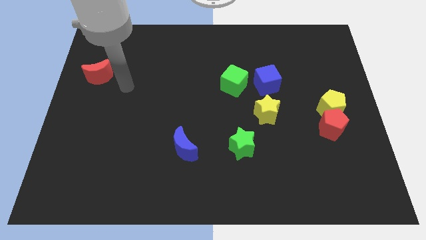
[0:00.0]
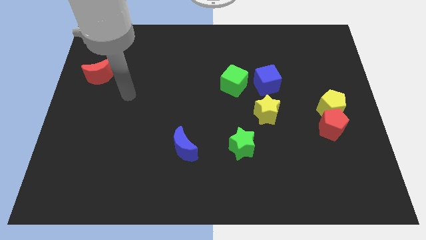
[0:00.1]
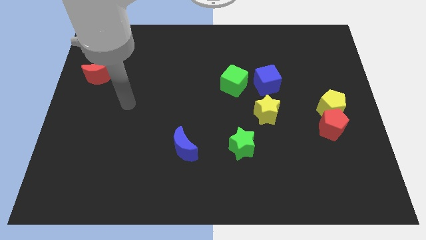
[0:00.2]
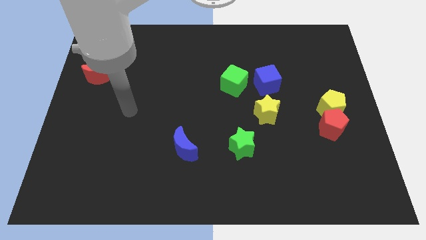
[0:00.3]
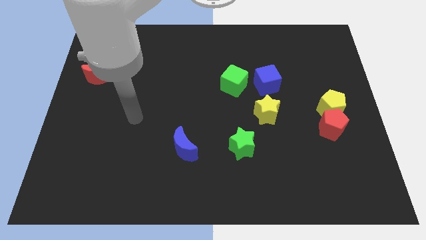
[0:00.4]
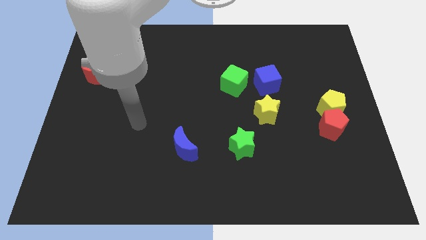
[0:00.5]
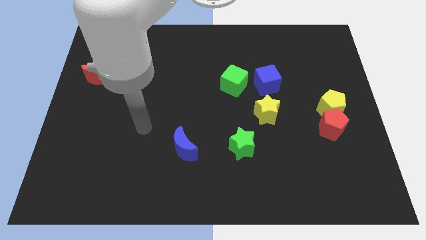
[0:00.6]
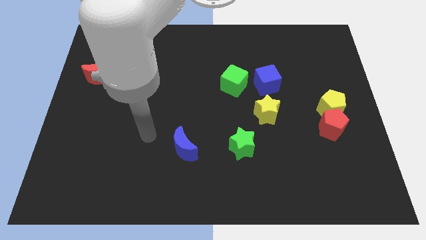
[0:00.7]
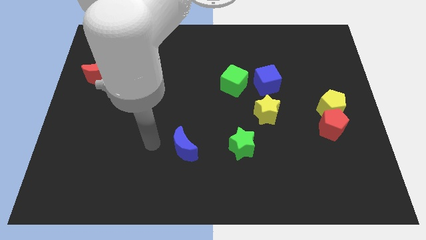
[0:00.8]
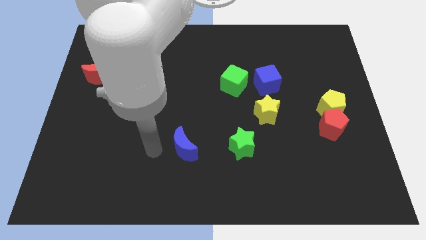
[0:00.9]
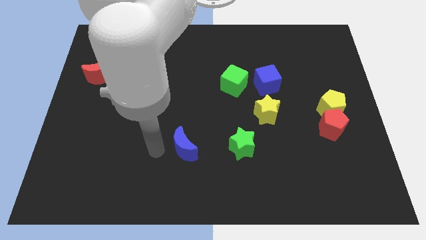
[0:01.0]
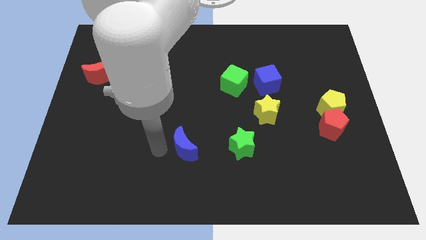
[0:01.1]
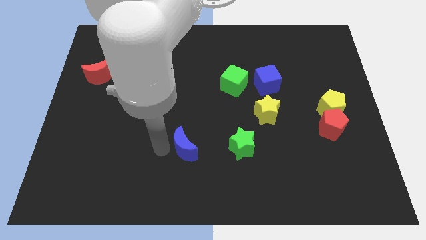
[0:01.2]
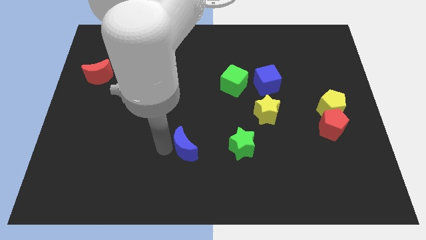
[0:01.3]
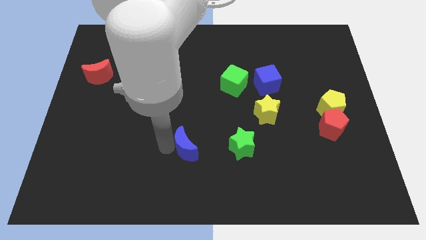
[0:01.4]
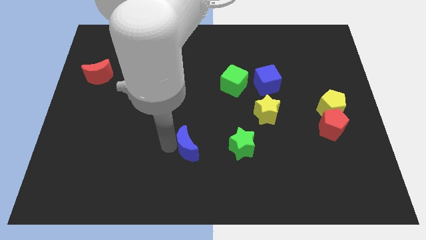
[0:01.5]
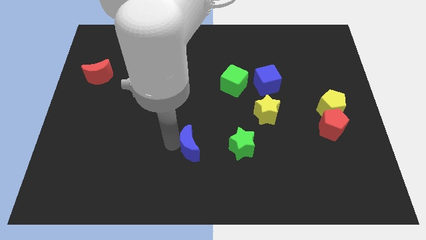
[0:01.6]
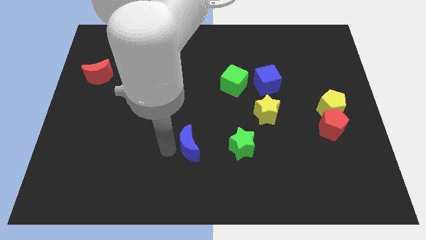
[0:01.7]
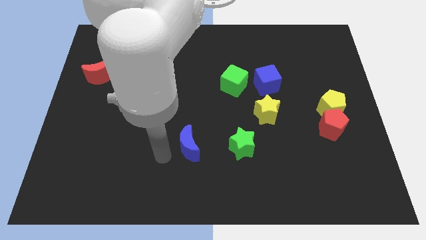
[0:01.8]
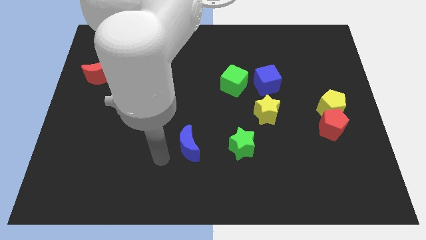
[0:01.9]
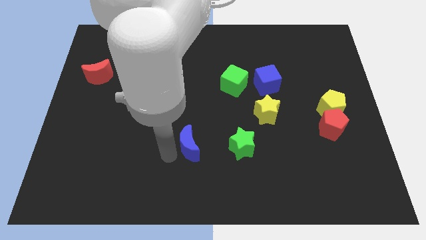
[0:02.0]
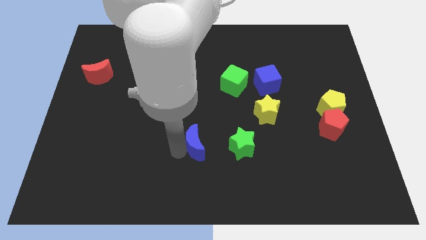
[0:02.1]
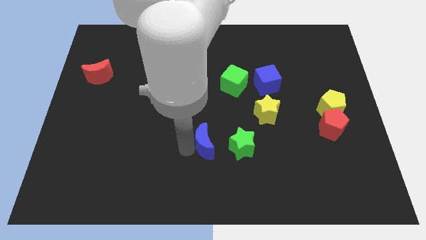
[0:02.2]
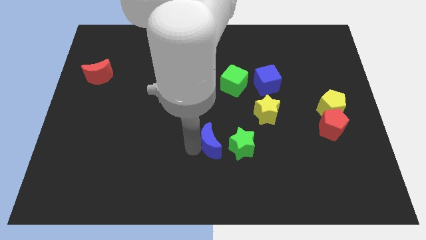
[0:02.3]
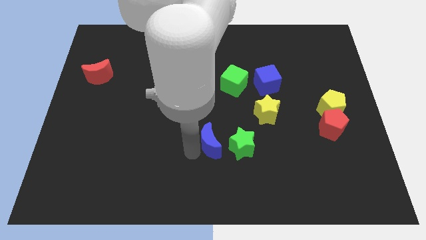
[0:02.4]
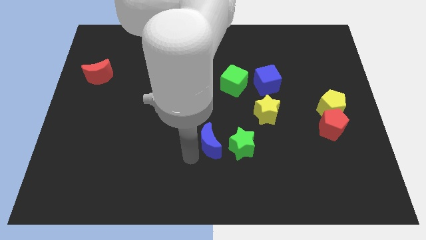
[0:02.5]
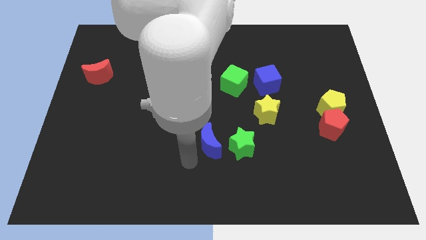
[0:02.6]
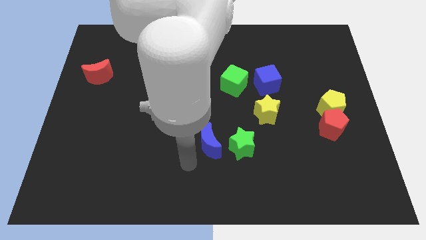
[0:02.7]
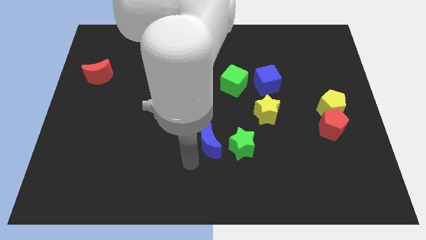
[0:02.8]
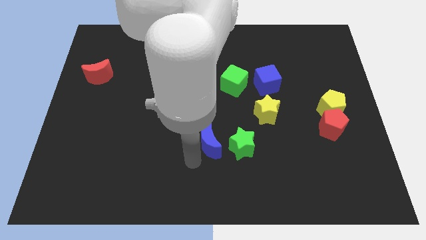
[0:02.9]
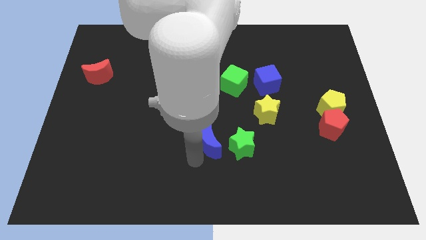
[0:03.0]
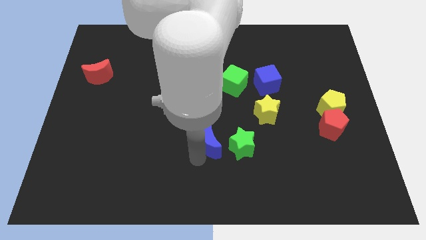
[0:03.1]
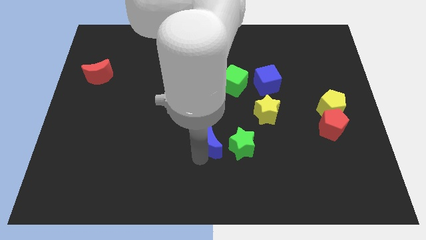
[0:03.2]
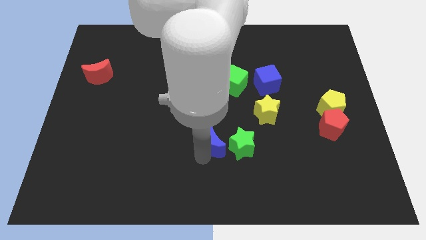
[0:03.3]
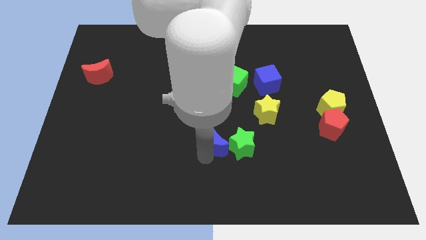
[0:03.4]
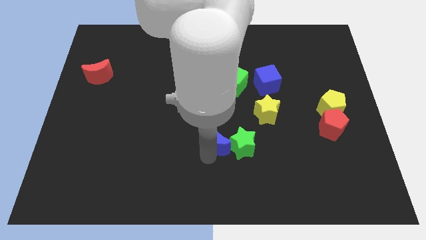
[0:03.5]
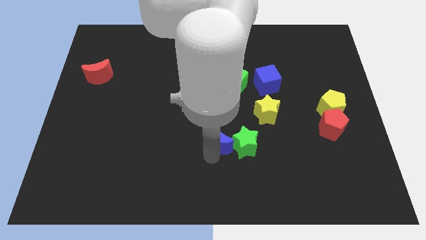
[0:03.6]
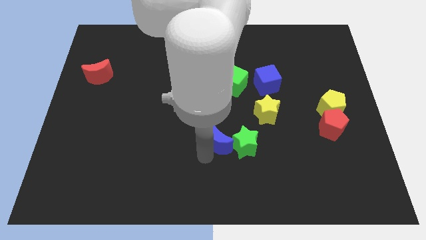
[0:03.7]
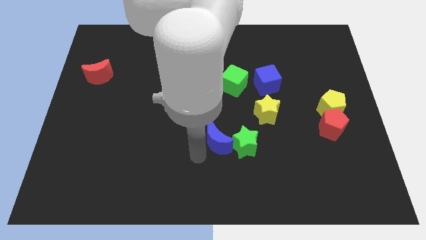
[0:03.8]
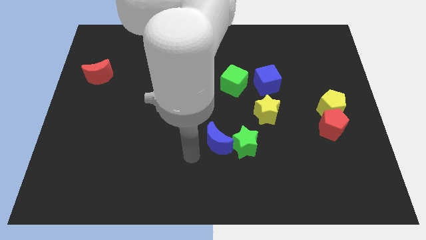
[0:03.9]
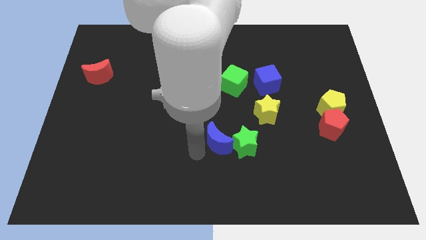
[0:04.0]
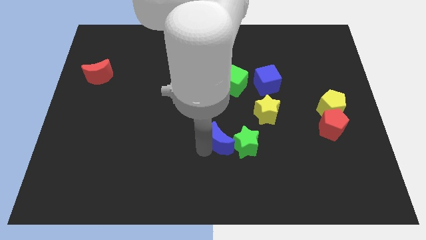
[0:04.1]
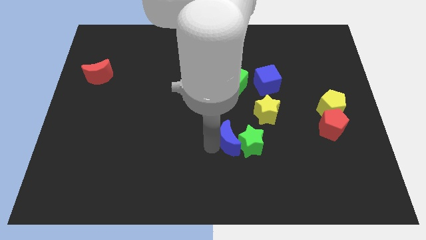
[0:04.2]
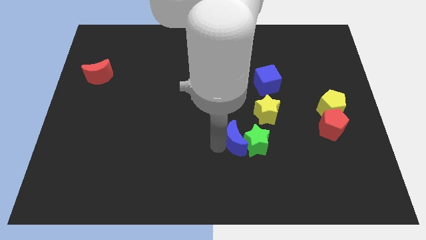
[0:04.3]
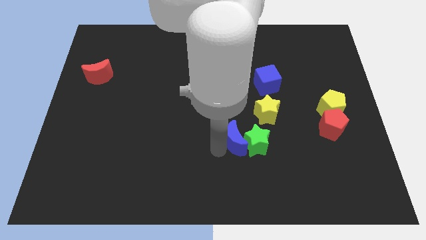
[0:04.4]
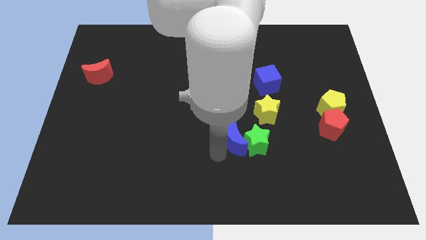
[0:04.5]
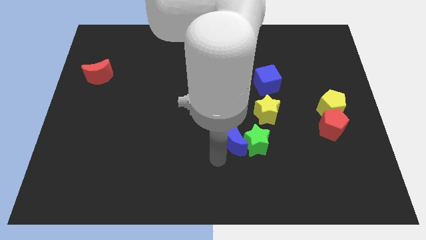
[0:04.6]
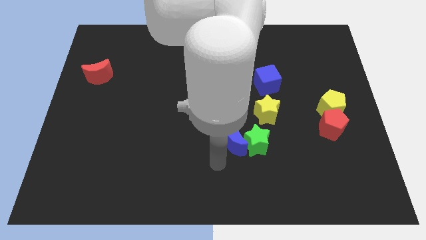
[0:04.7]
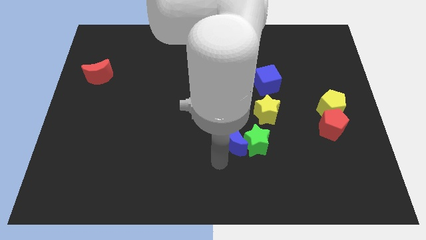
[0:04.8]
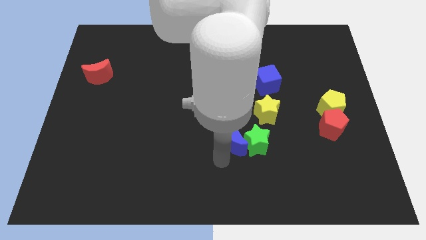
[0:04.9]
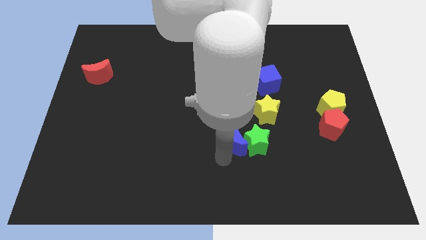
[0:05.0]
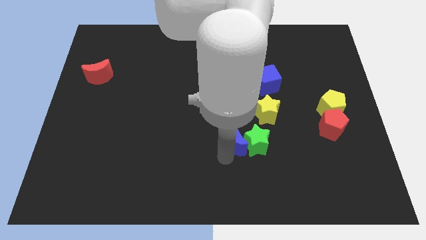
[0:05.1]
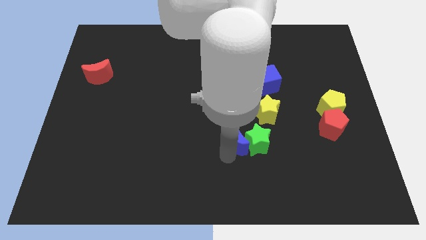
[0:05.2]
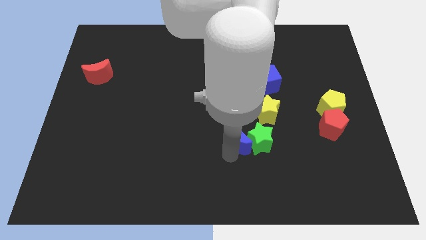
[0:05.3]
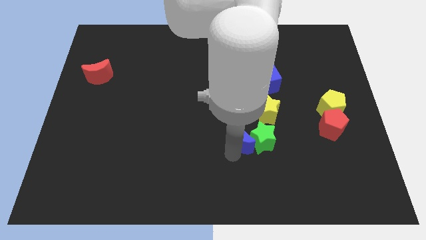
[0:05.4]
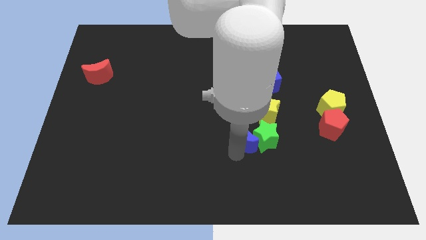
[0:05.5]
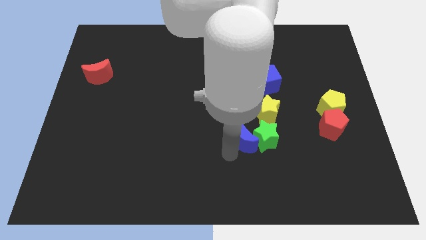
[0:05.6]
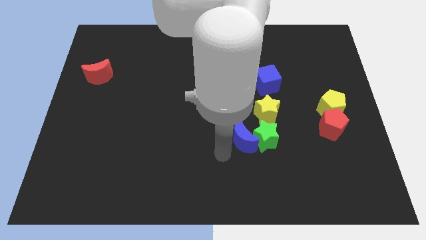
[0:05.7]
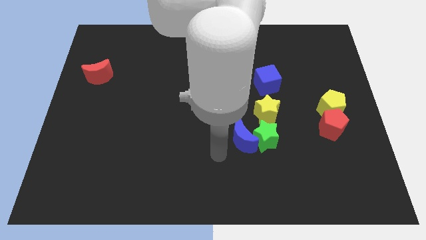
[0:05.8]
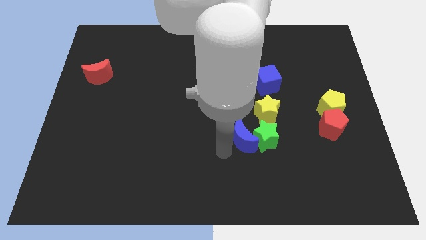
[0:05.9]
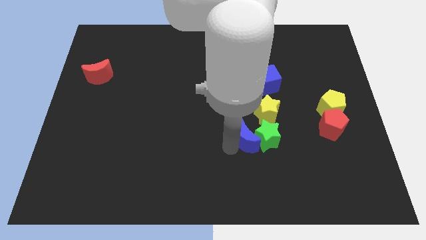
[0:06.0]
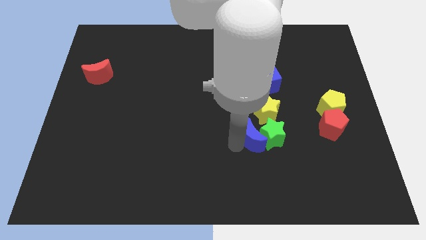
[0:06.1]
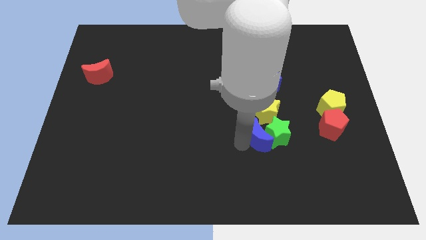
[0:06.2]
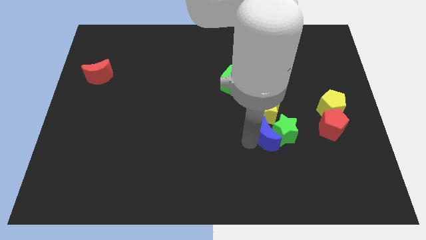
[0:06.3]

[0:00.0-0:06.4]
move the blue moon to the left of the red pentagon

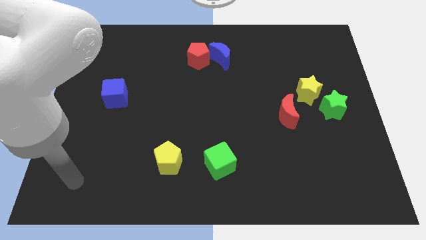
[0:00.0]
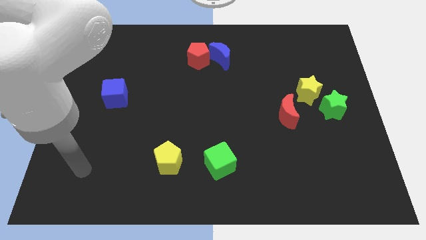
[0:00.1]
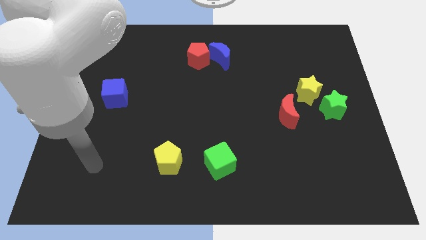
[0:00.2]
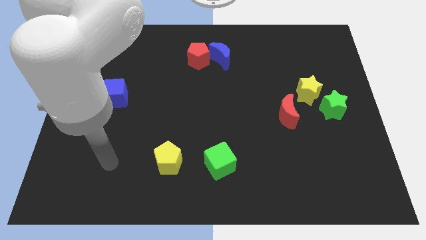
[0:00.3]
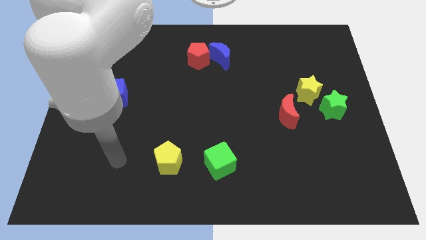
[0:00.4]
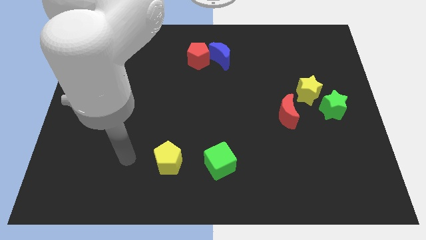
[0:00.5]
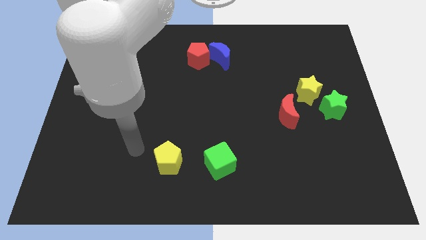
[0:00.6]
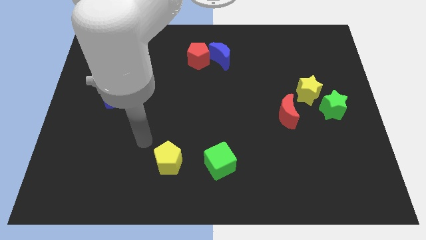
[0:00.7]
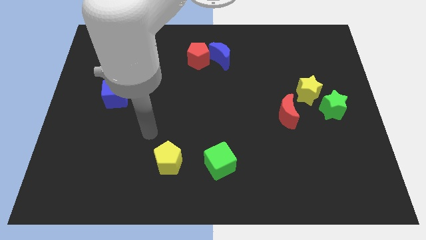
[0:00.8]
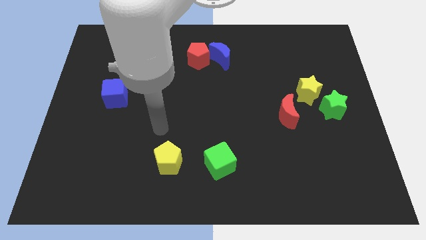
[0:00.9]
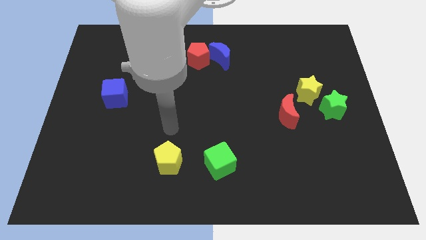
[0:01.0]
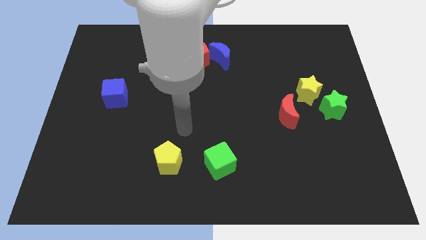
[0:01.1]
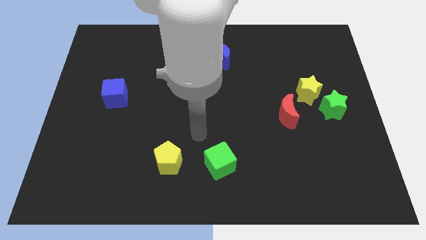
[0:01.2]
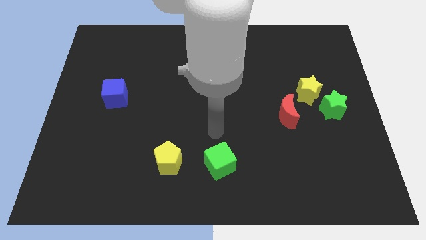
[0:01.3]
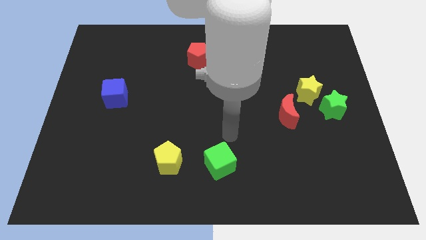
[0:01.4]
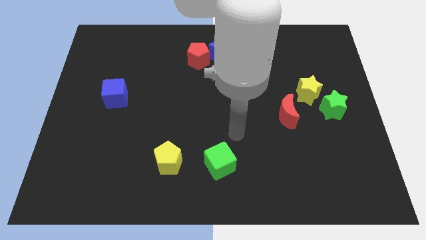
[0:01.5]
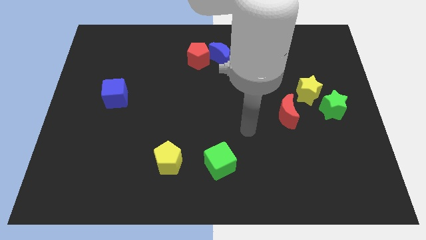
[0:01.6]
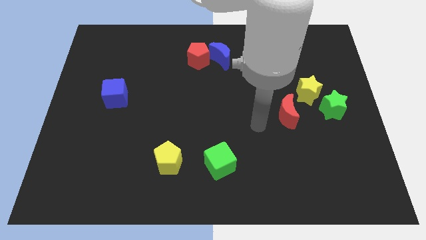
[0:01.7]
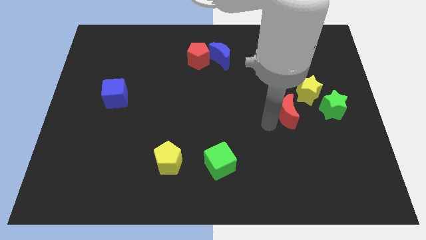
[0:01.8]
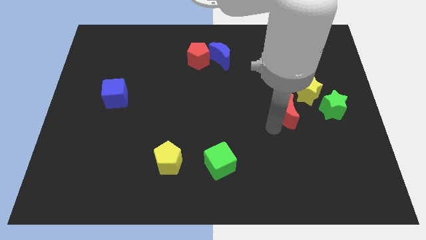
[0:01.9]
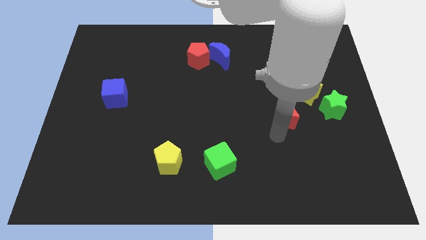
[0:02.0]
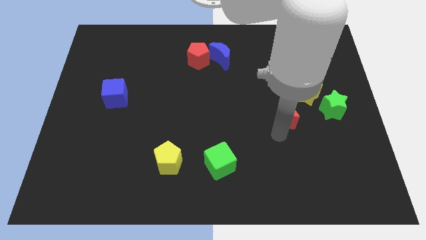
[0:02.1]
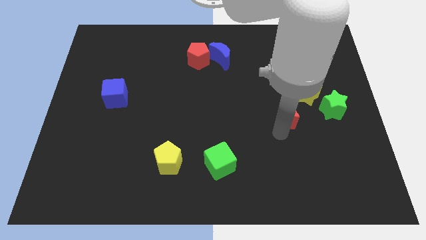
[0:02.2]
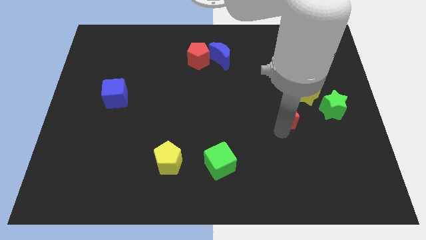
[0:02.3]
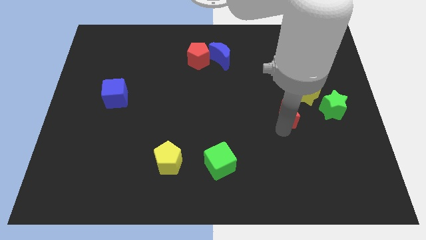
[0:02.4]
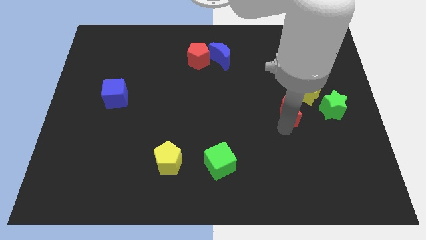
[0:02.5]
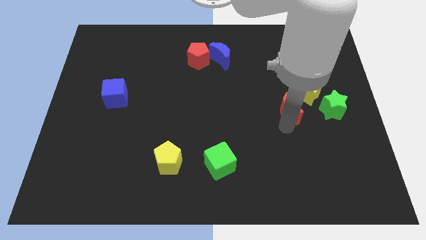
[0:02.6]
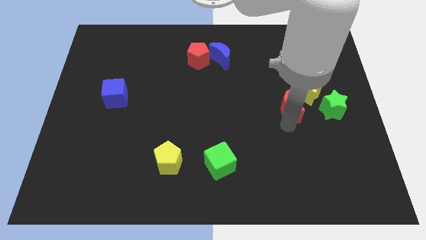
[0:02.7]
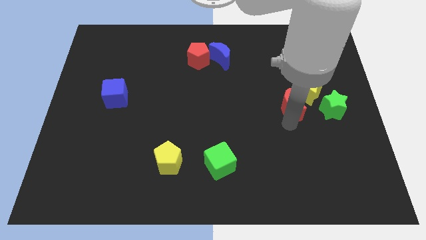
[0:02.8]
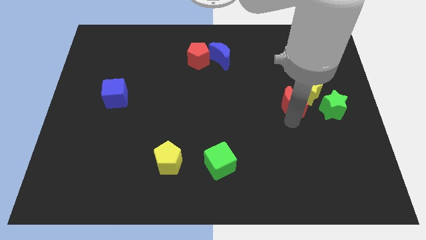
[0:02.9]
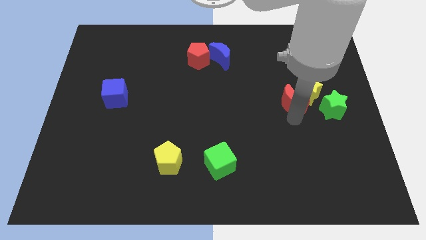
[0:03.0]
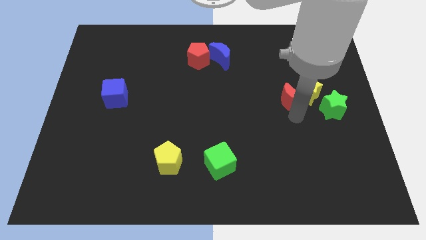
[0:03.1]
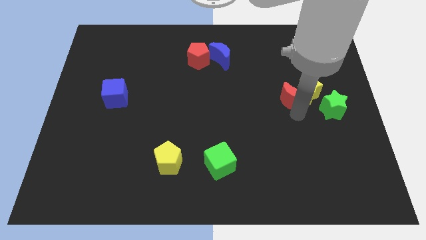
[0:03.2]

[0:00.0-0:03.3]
put the red moon diagonally up and to the left of the green star
